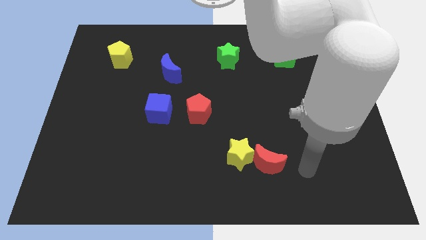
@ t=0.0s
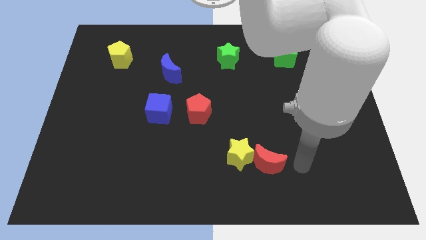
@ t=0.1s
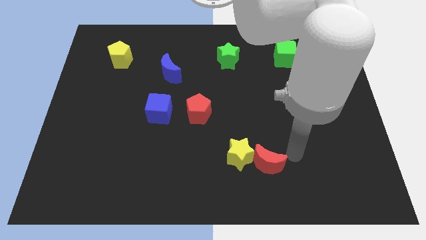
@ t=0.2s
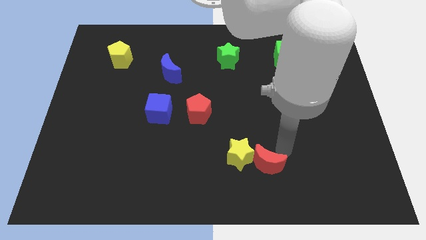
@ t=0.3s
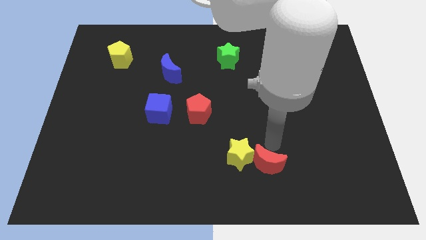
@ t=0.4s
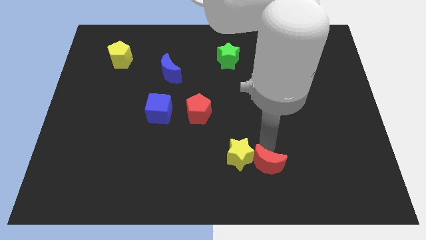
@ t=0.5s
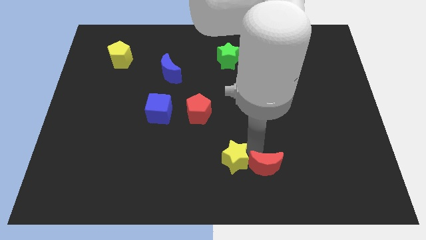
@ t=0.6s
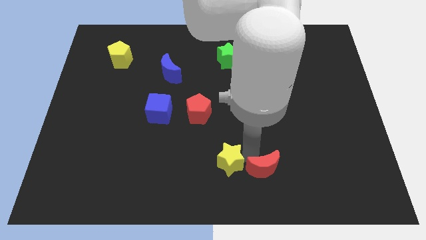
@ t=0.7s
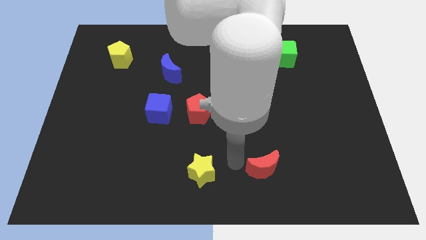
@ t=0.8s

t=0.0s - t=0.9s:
separate the red moon from the yellow star

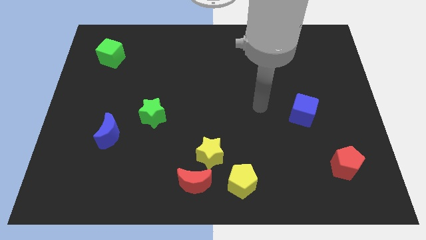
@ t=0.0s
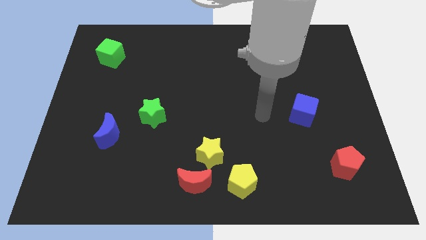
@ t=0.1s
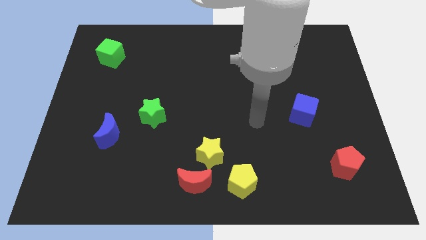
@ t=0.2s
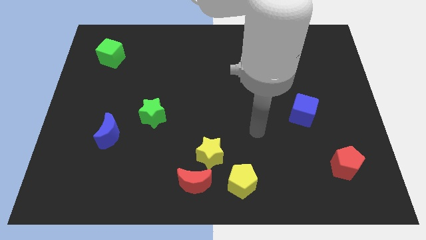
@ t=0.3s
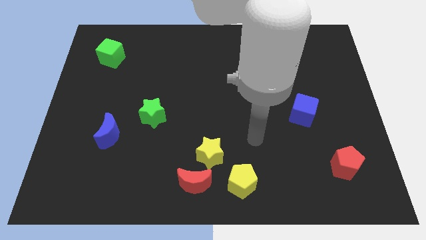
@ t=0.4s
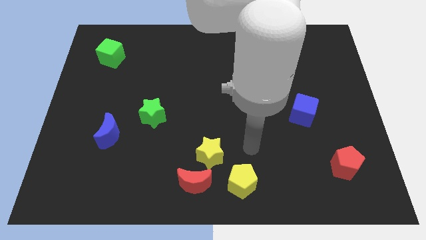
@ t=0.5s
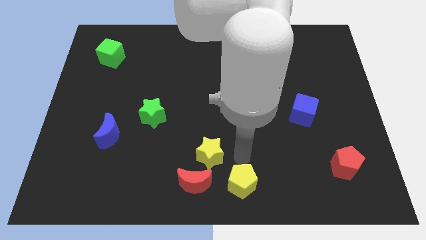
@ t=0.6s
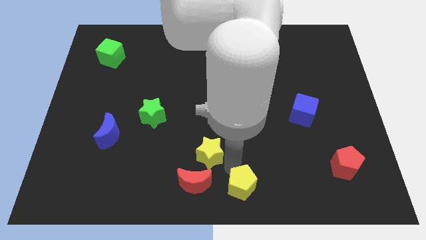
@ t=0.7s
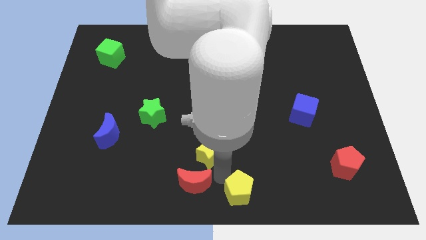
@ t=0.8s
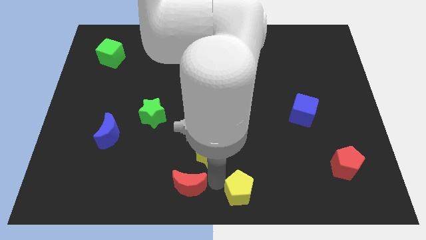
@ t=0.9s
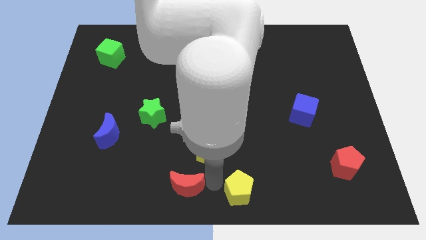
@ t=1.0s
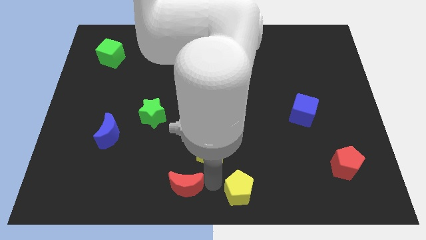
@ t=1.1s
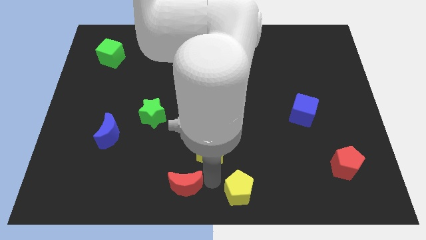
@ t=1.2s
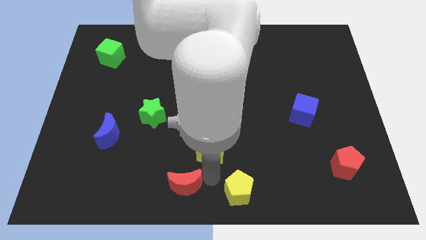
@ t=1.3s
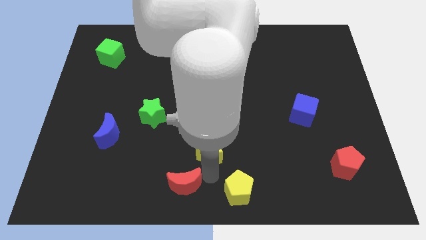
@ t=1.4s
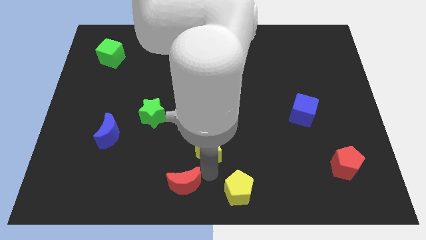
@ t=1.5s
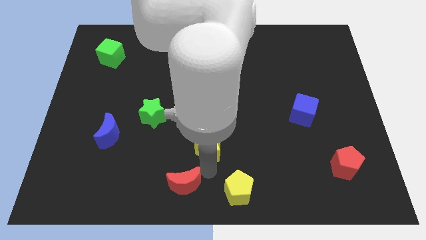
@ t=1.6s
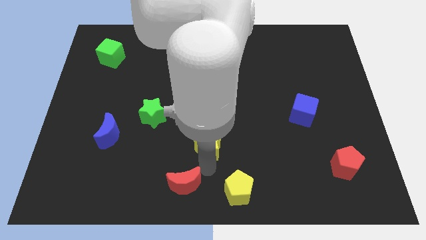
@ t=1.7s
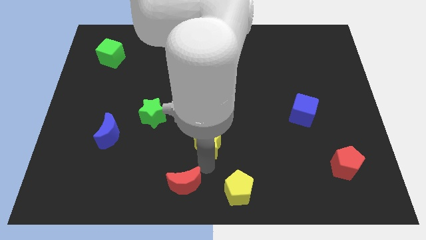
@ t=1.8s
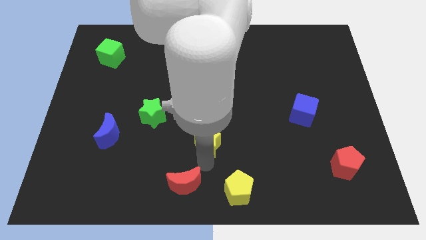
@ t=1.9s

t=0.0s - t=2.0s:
move the yellow star away from the red moon and yellow pentagon

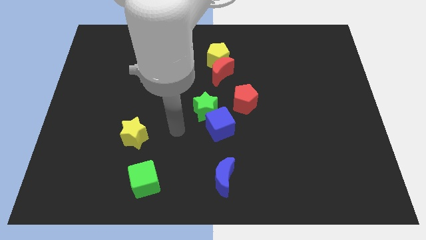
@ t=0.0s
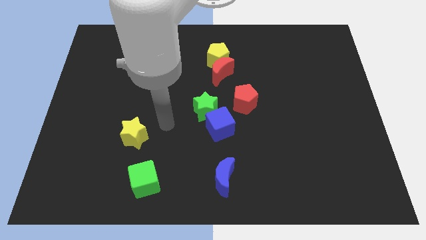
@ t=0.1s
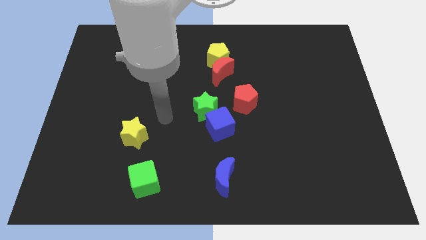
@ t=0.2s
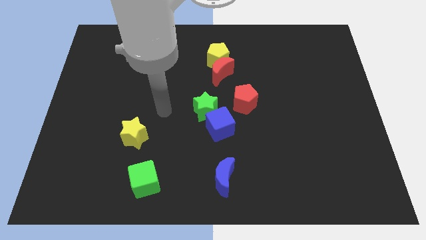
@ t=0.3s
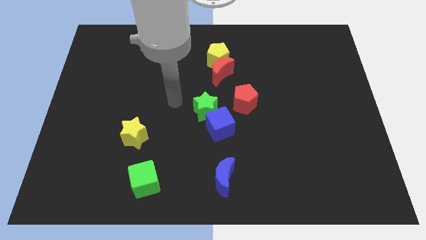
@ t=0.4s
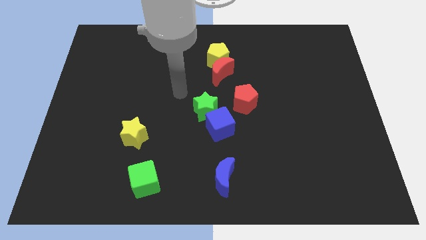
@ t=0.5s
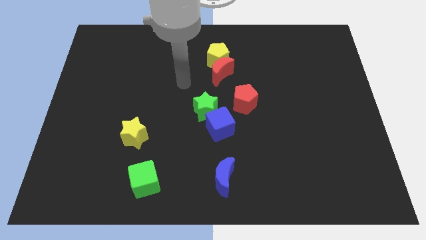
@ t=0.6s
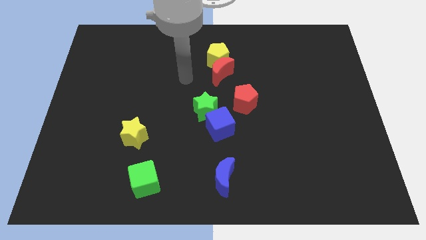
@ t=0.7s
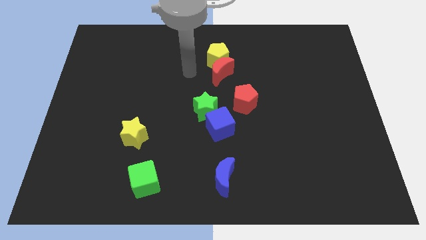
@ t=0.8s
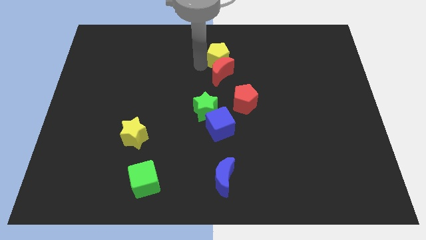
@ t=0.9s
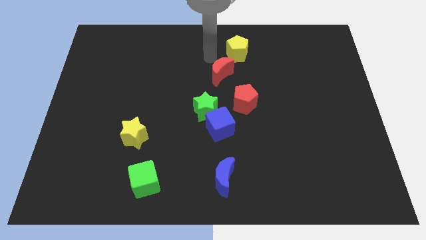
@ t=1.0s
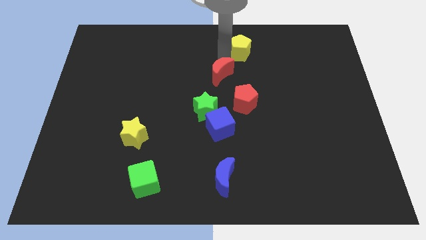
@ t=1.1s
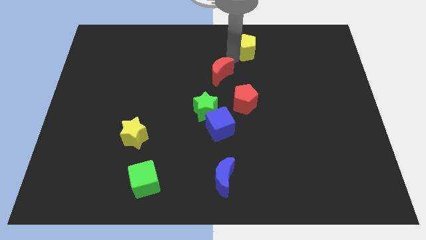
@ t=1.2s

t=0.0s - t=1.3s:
pull the red moon apart from the yellow pentagon

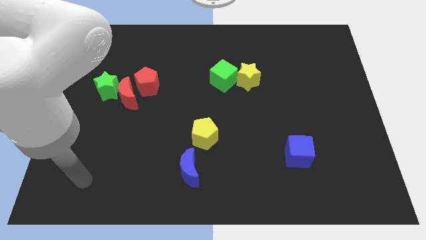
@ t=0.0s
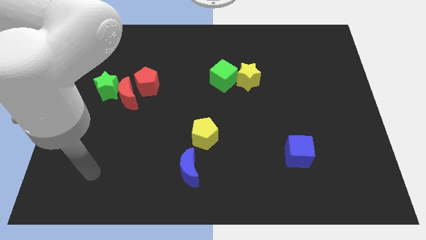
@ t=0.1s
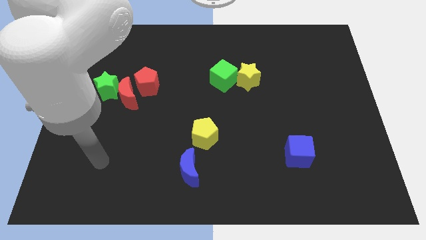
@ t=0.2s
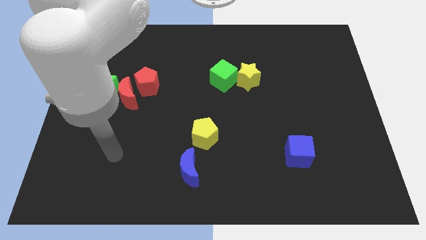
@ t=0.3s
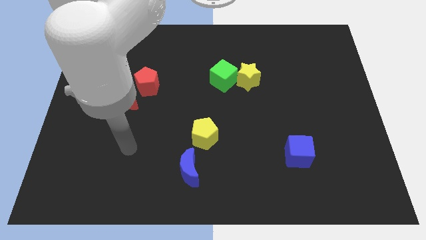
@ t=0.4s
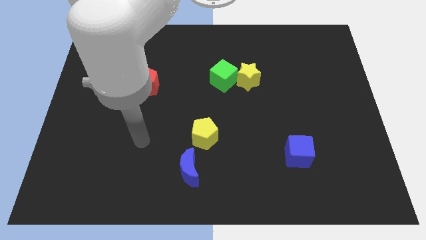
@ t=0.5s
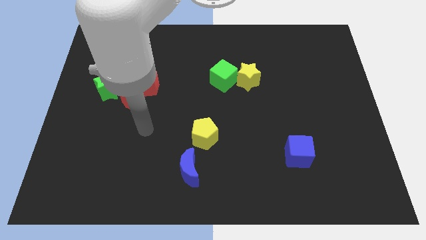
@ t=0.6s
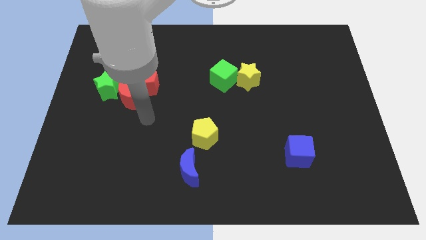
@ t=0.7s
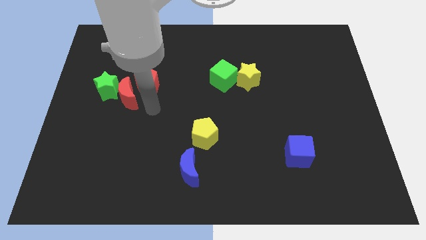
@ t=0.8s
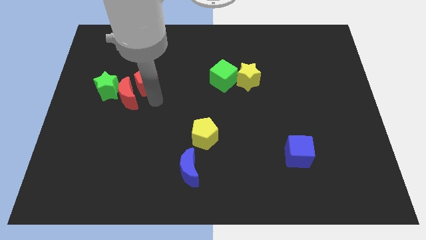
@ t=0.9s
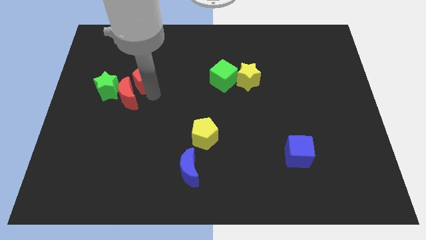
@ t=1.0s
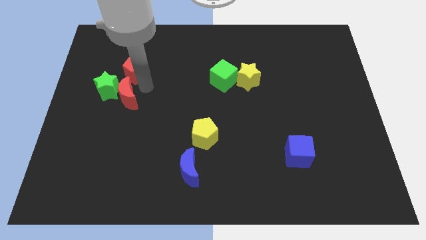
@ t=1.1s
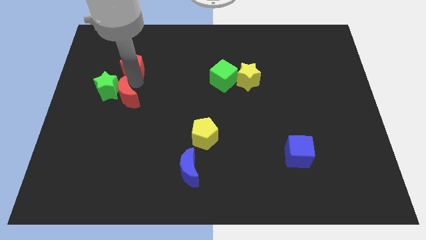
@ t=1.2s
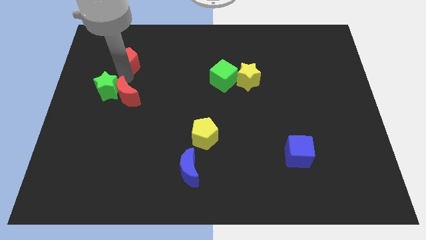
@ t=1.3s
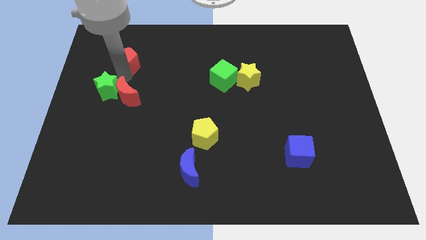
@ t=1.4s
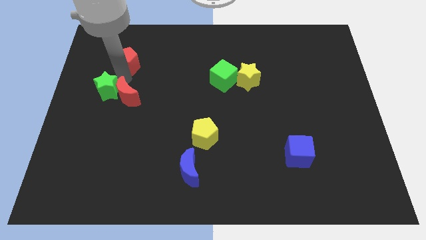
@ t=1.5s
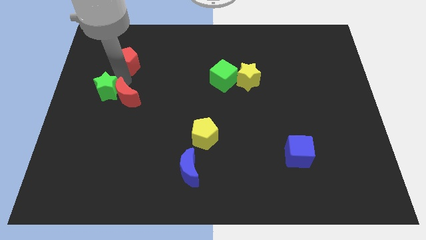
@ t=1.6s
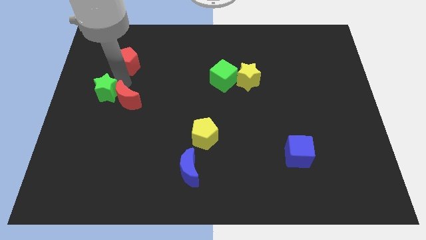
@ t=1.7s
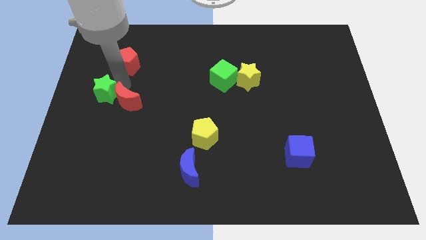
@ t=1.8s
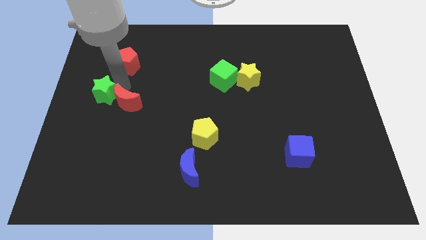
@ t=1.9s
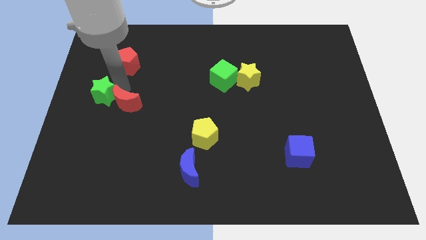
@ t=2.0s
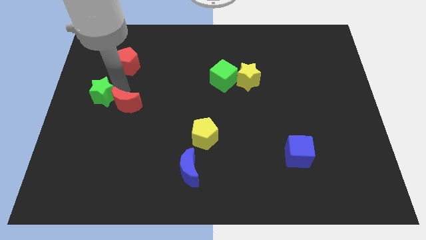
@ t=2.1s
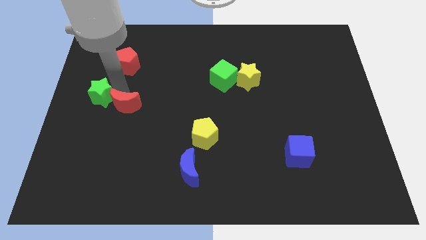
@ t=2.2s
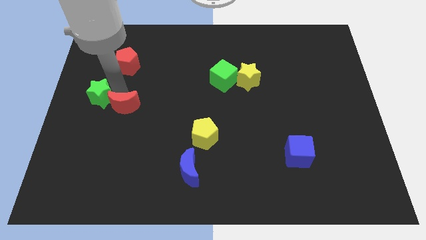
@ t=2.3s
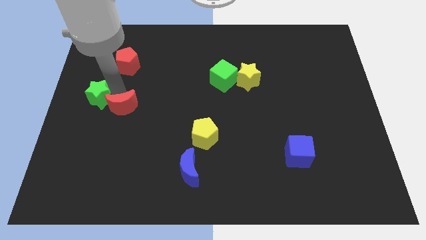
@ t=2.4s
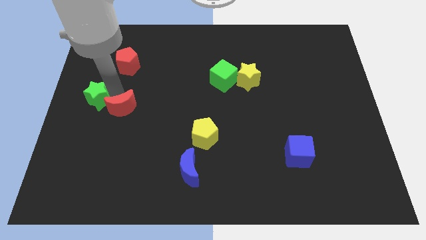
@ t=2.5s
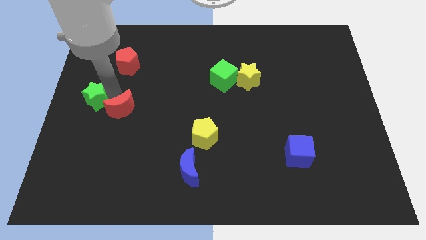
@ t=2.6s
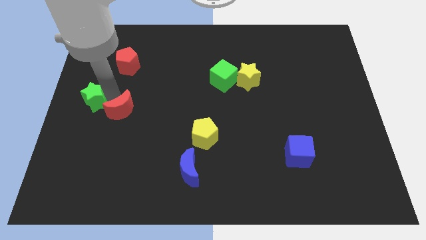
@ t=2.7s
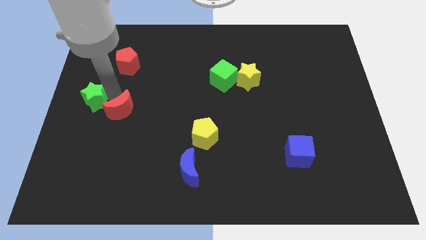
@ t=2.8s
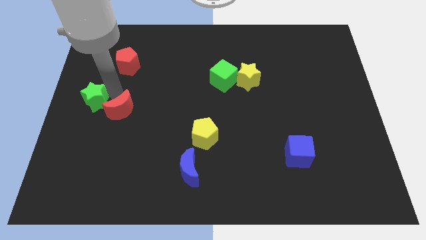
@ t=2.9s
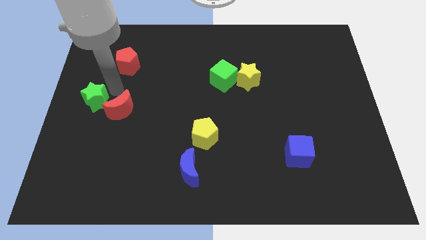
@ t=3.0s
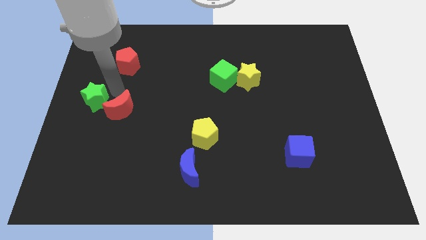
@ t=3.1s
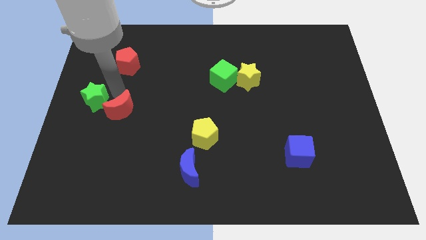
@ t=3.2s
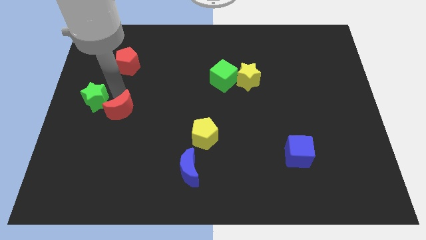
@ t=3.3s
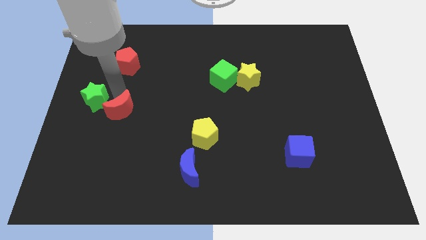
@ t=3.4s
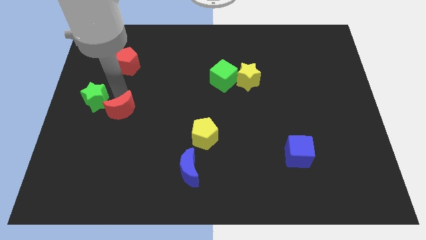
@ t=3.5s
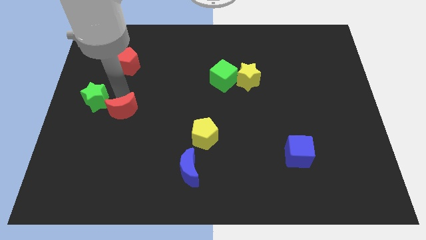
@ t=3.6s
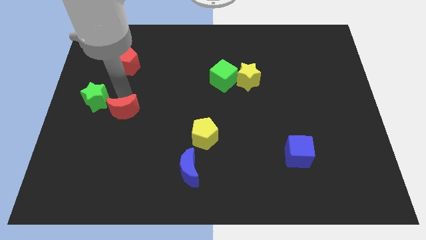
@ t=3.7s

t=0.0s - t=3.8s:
pull the red moon apart from the green star and red pentagon

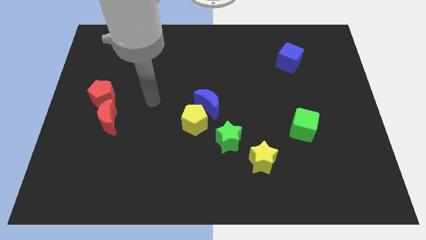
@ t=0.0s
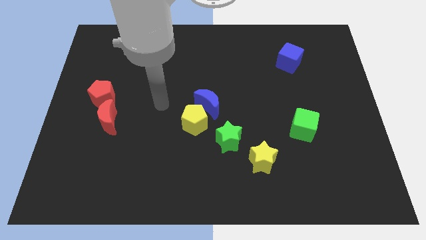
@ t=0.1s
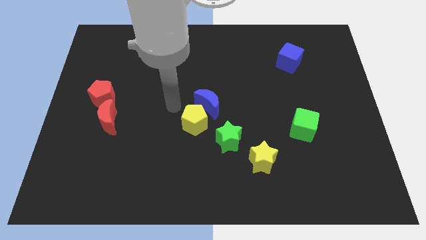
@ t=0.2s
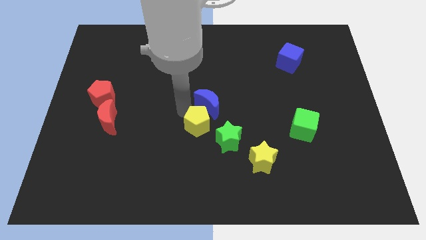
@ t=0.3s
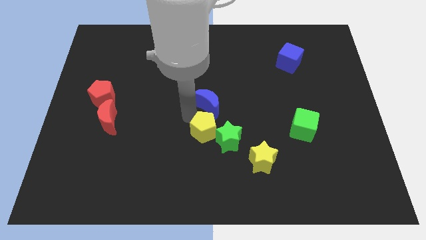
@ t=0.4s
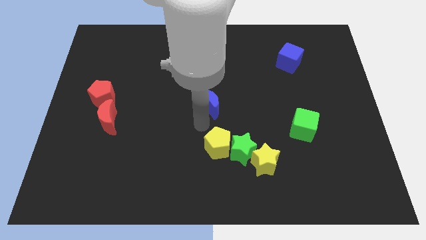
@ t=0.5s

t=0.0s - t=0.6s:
move the blue moon away from the yellow pentagon

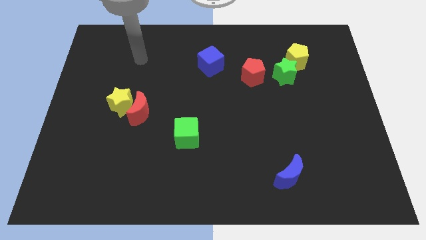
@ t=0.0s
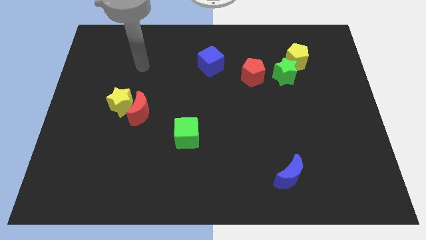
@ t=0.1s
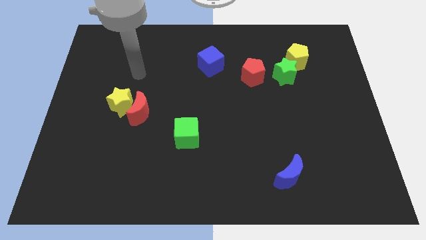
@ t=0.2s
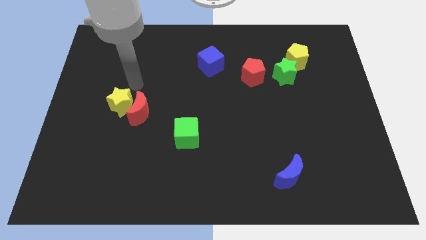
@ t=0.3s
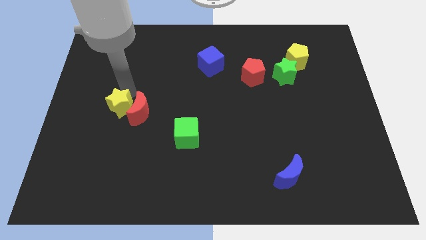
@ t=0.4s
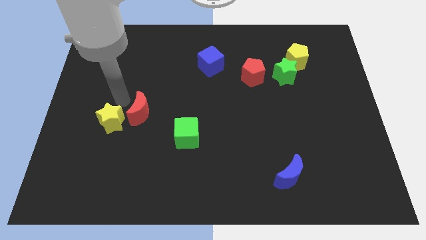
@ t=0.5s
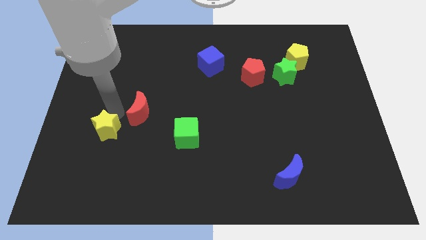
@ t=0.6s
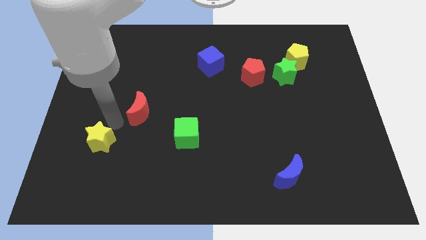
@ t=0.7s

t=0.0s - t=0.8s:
pull the red moon apart from the yellow star
